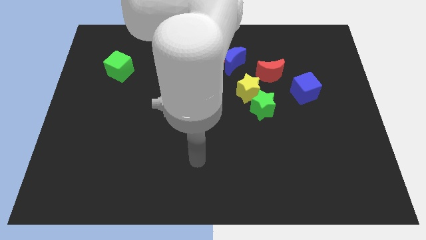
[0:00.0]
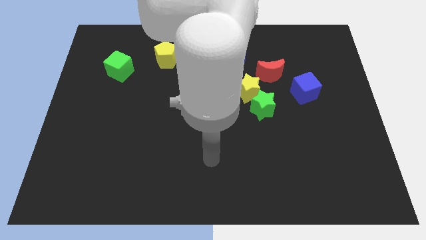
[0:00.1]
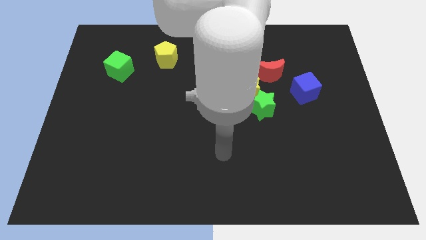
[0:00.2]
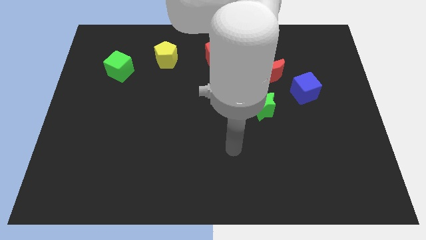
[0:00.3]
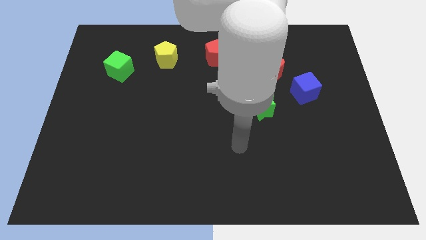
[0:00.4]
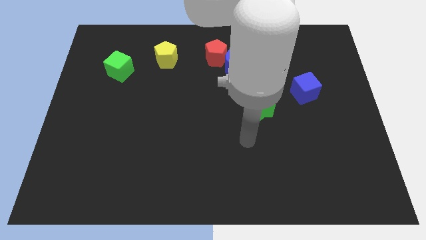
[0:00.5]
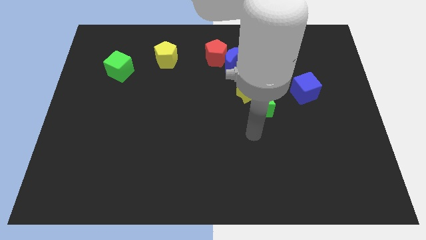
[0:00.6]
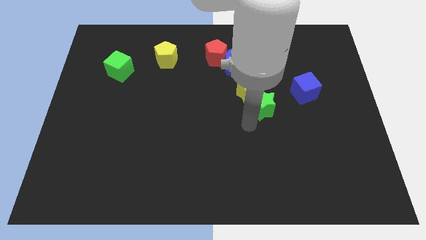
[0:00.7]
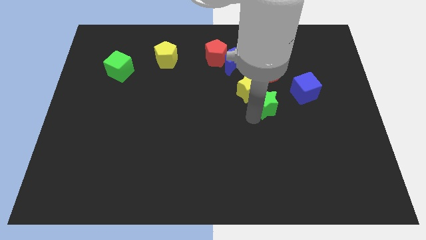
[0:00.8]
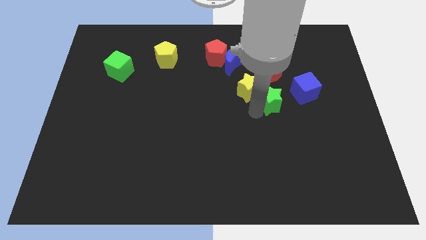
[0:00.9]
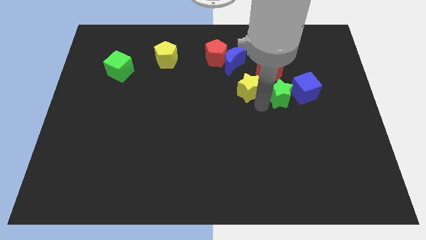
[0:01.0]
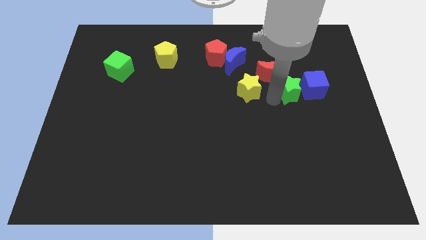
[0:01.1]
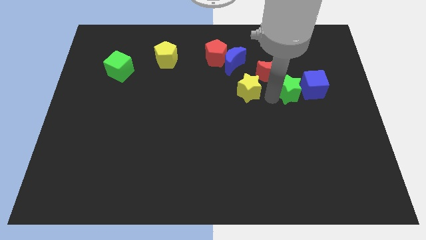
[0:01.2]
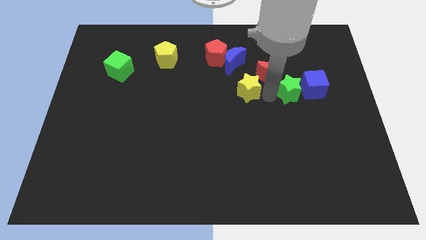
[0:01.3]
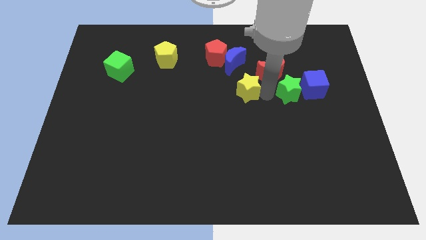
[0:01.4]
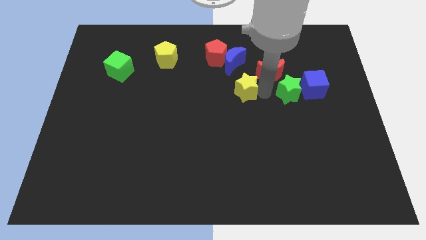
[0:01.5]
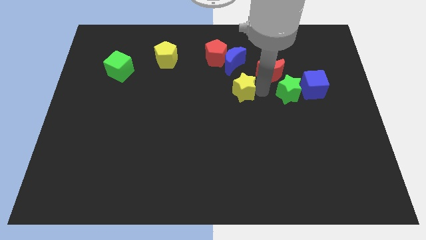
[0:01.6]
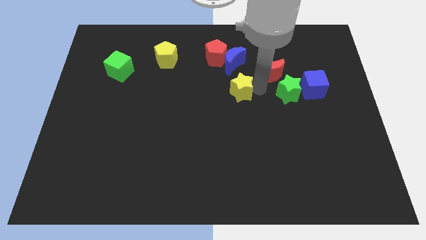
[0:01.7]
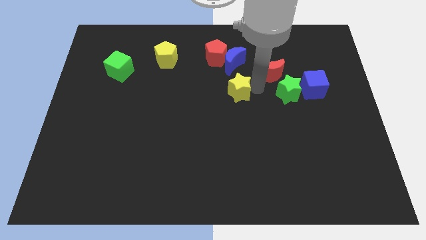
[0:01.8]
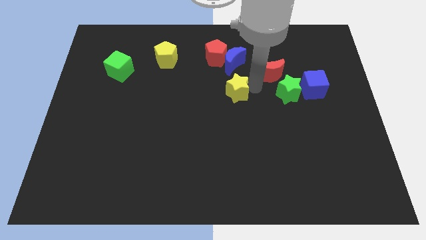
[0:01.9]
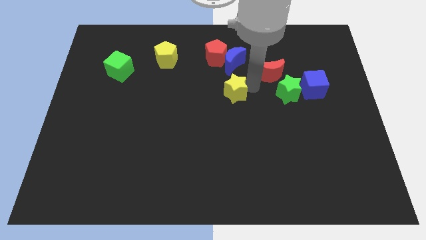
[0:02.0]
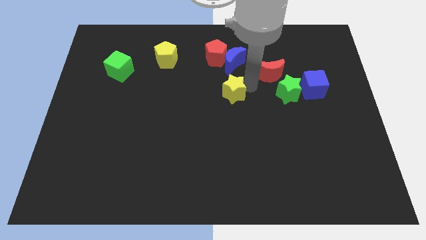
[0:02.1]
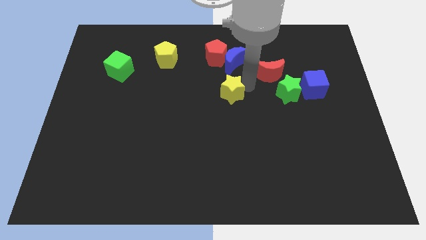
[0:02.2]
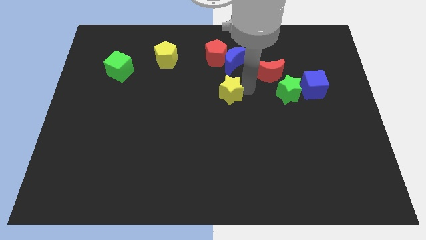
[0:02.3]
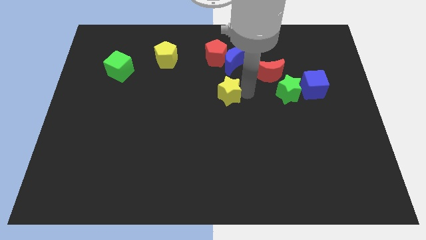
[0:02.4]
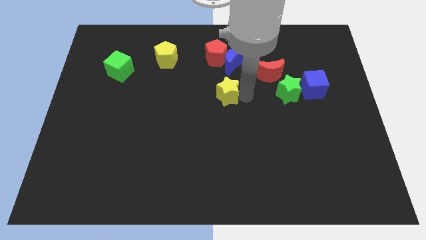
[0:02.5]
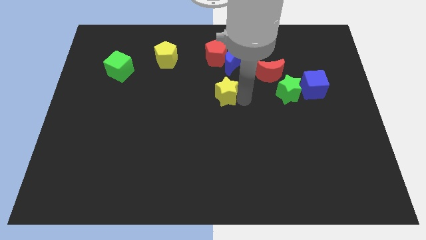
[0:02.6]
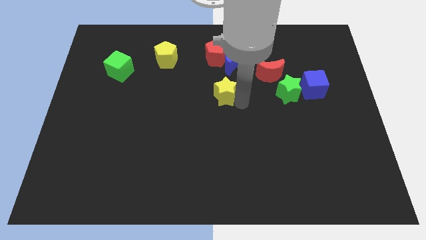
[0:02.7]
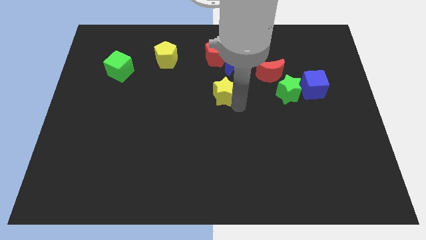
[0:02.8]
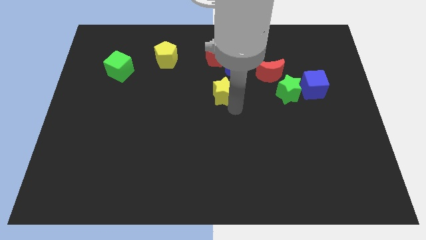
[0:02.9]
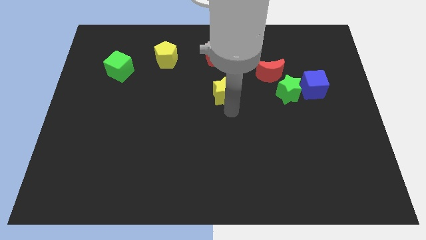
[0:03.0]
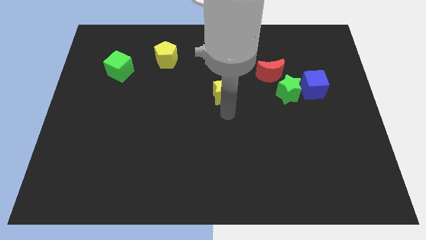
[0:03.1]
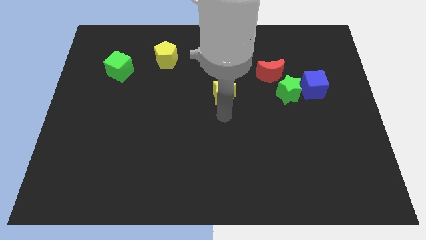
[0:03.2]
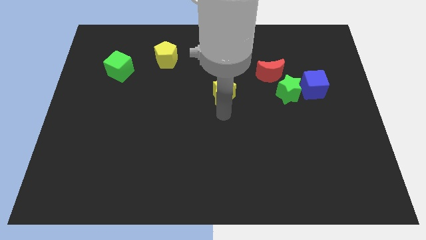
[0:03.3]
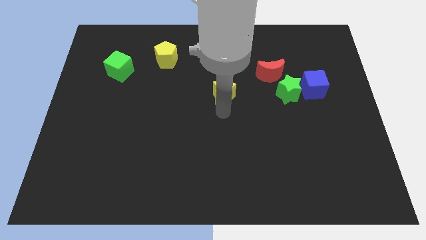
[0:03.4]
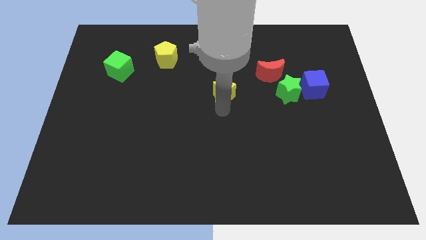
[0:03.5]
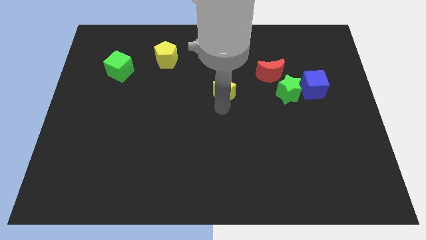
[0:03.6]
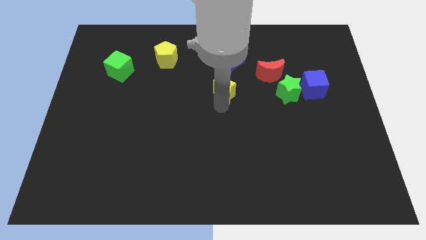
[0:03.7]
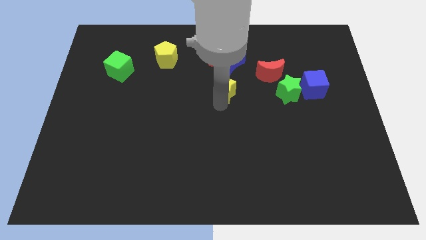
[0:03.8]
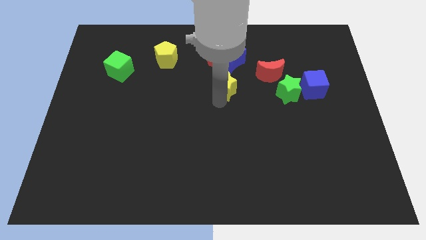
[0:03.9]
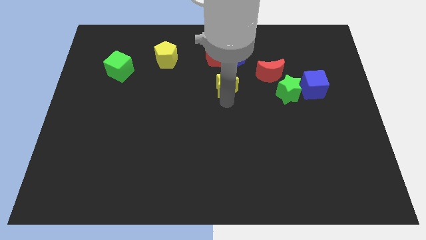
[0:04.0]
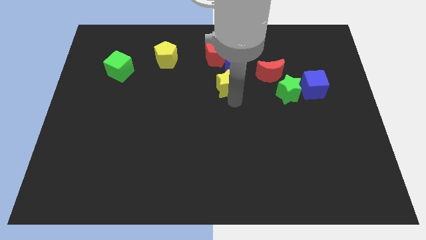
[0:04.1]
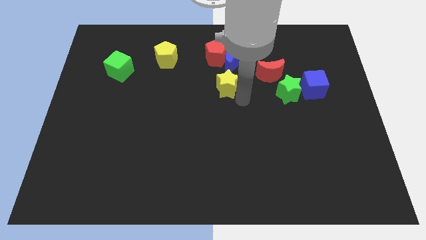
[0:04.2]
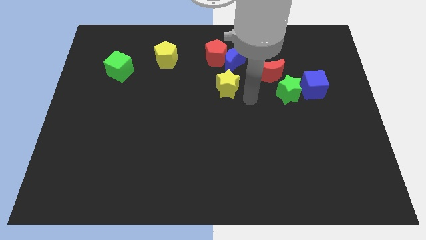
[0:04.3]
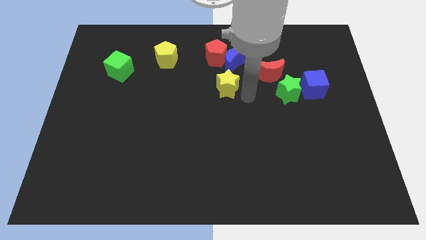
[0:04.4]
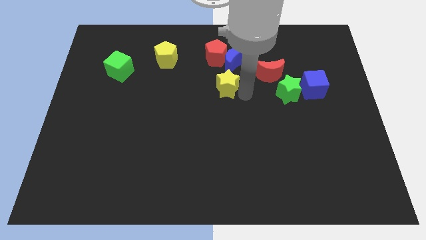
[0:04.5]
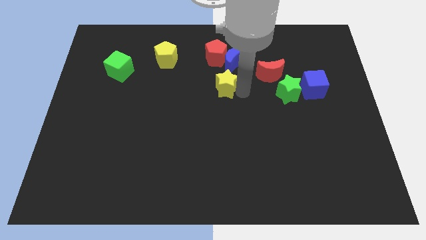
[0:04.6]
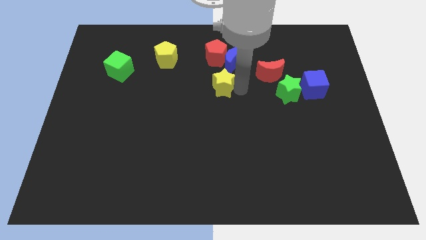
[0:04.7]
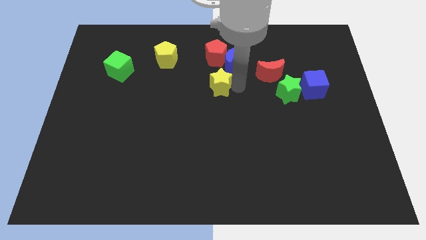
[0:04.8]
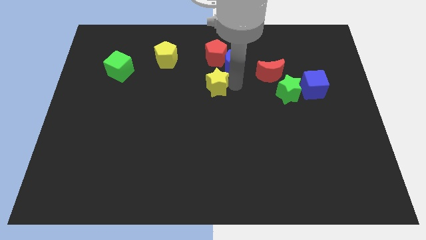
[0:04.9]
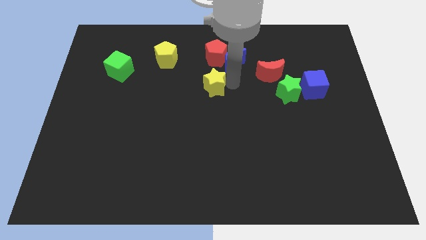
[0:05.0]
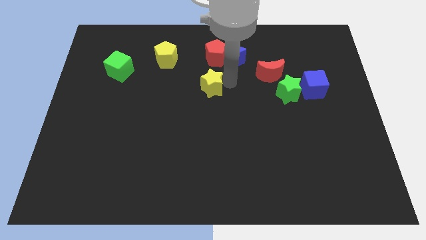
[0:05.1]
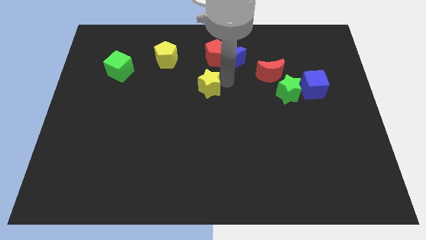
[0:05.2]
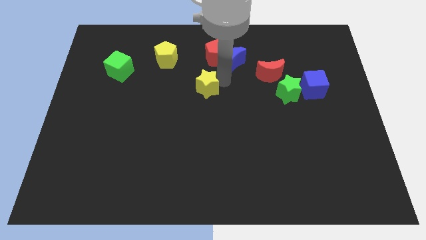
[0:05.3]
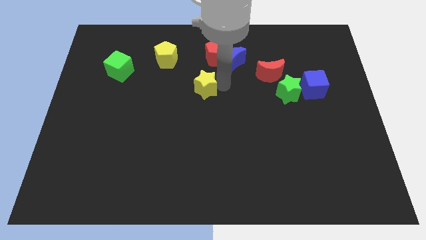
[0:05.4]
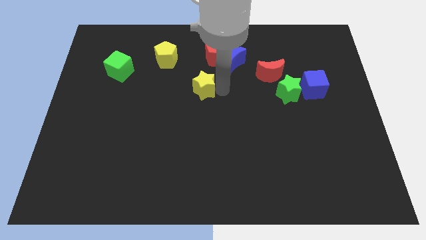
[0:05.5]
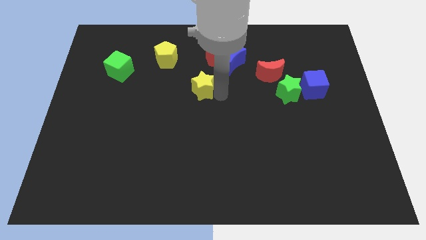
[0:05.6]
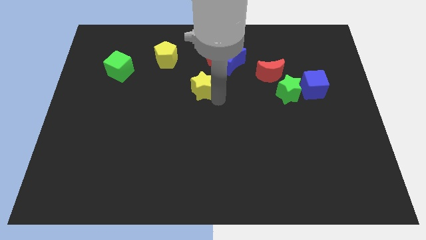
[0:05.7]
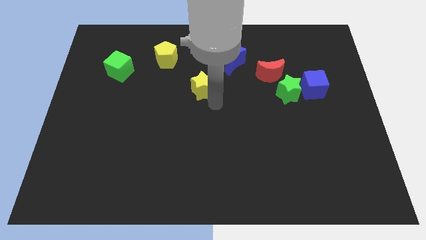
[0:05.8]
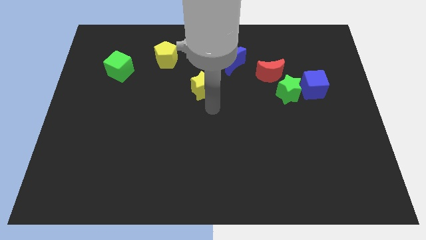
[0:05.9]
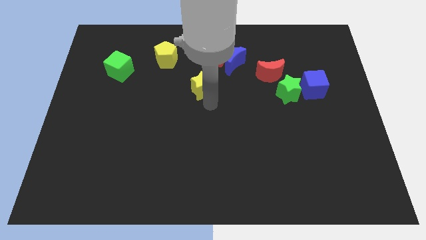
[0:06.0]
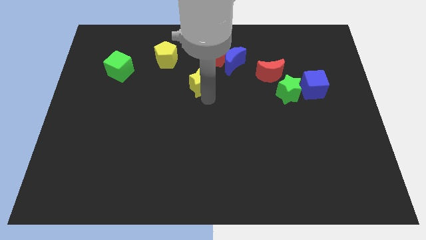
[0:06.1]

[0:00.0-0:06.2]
put the yellow star diagonally down and to the left of the red pentagon
